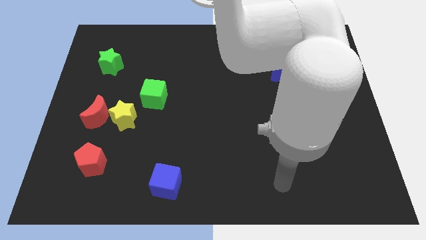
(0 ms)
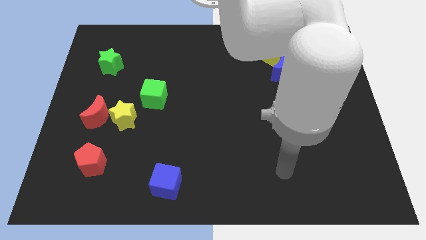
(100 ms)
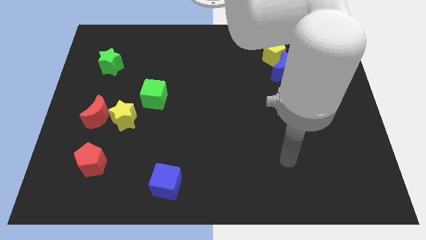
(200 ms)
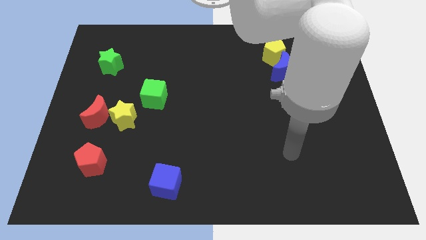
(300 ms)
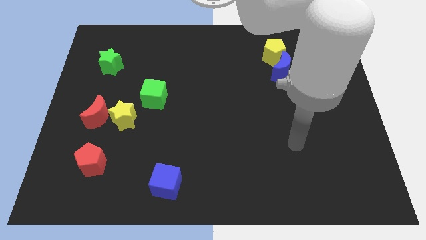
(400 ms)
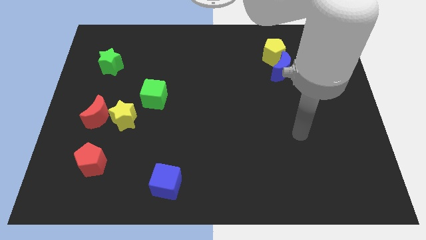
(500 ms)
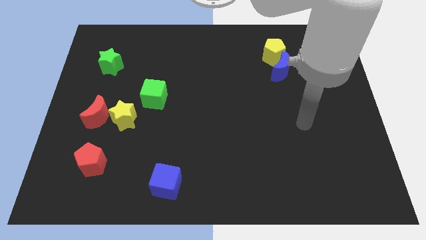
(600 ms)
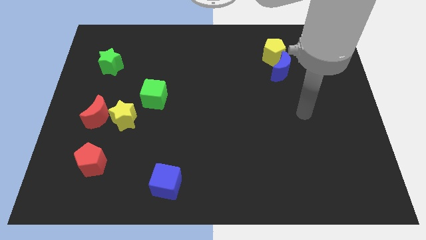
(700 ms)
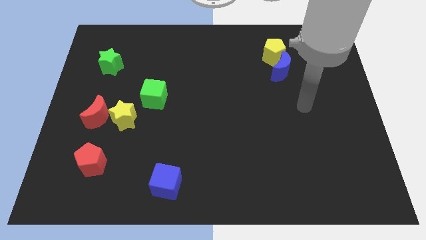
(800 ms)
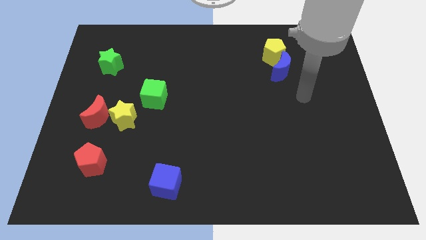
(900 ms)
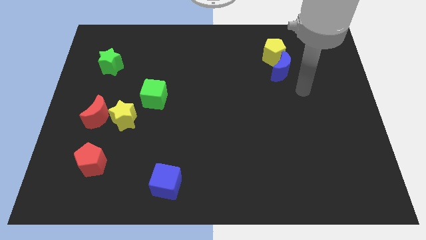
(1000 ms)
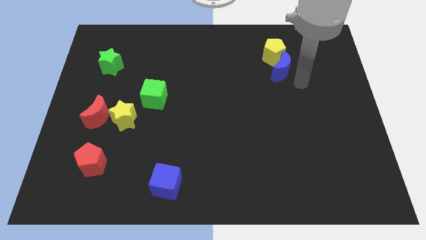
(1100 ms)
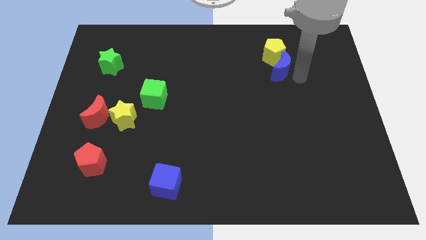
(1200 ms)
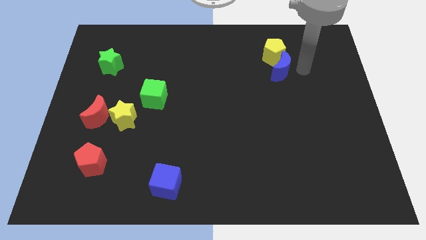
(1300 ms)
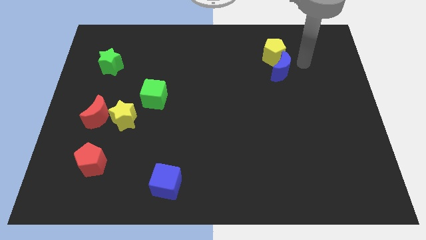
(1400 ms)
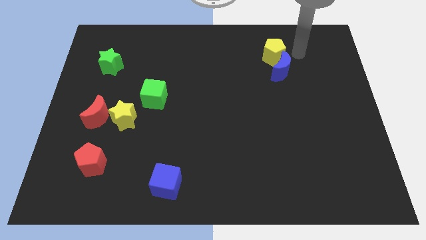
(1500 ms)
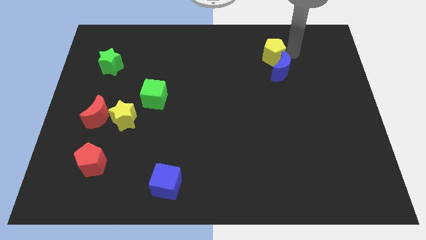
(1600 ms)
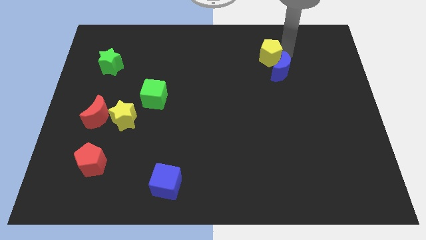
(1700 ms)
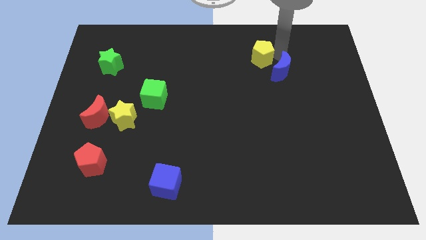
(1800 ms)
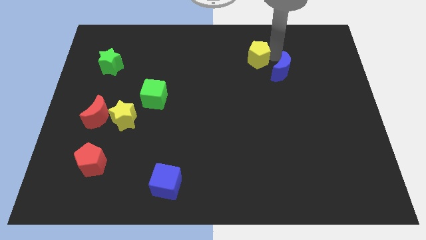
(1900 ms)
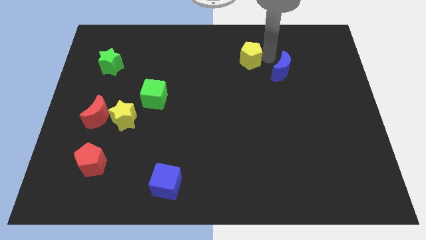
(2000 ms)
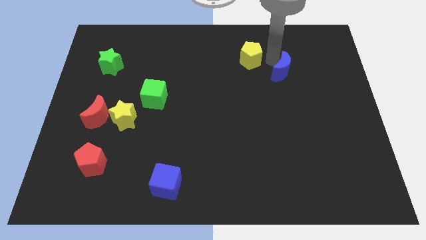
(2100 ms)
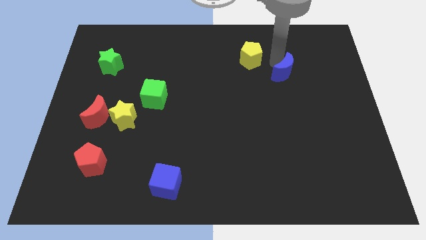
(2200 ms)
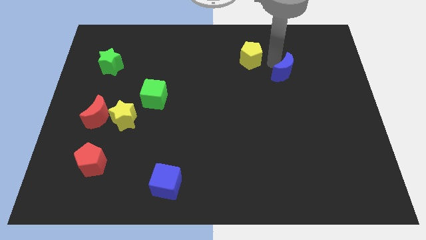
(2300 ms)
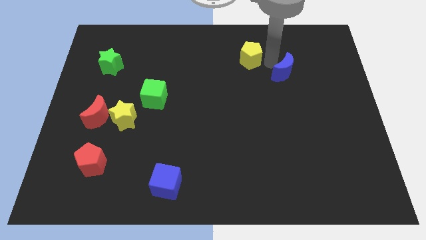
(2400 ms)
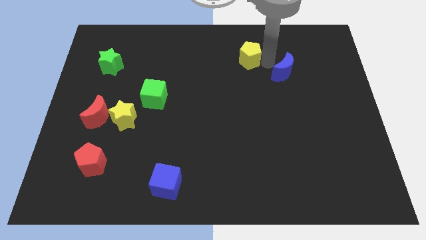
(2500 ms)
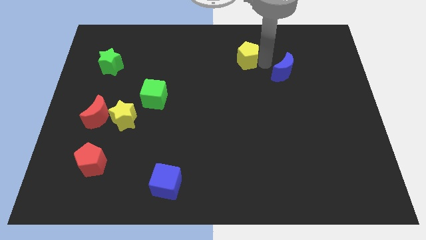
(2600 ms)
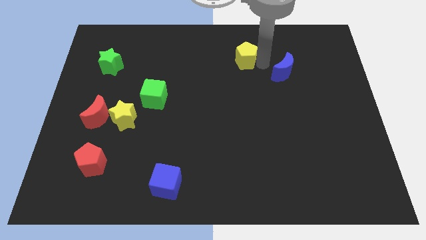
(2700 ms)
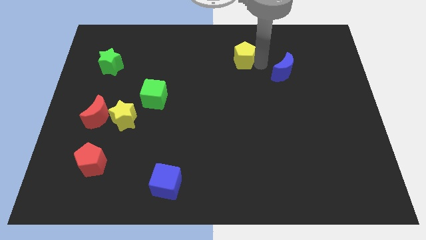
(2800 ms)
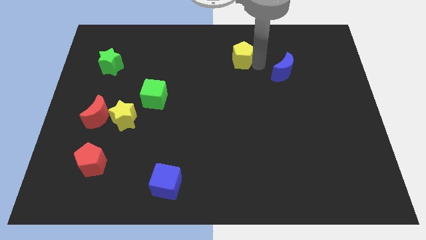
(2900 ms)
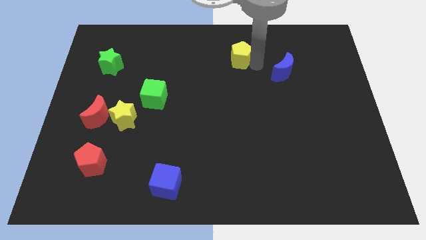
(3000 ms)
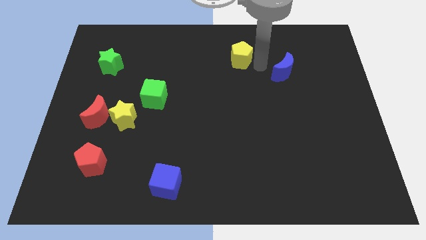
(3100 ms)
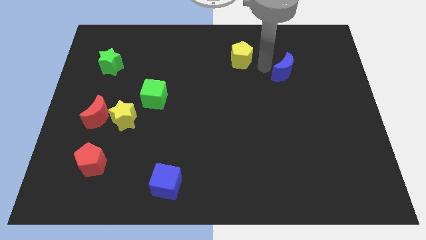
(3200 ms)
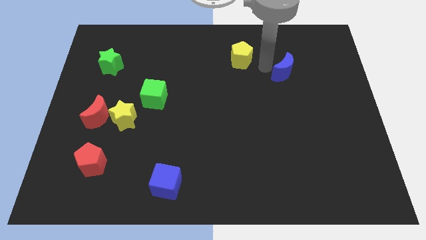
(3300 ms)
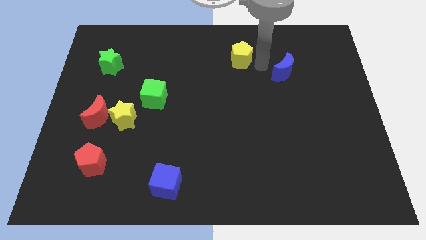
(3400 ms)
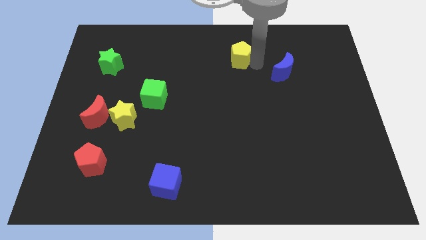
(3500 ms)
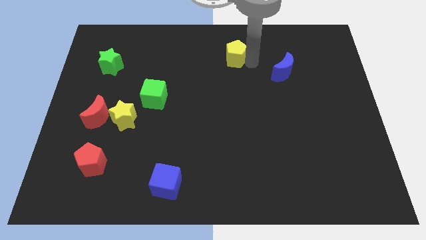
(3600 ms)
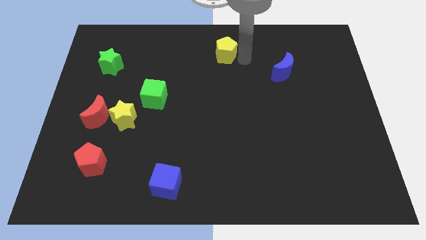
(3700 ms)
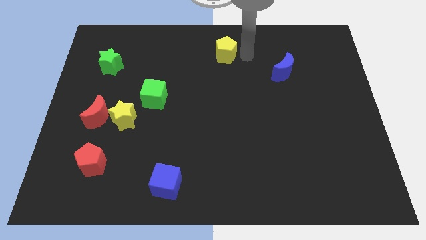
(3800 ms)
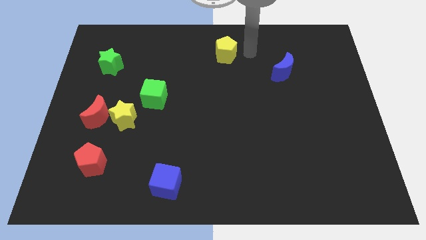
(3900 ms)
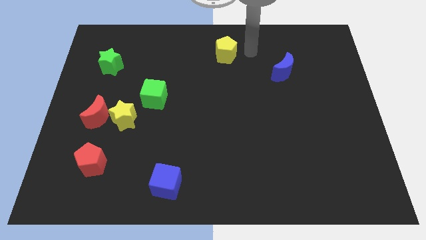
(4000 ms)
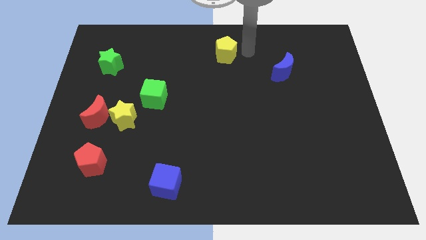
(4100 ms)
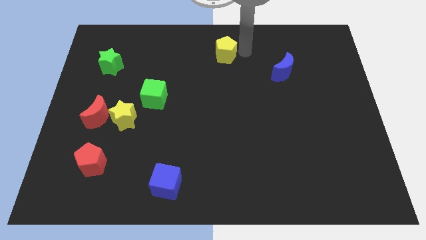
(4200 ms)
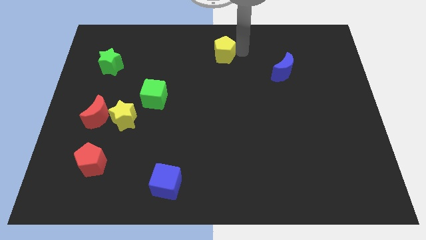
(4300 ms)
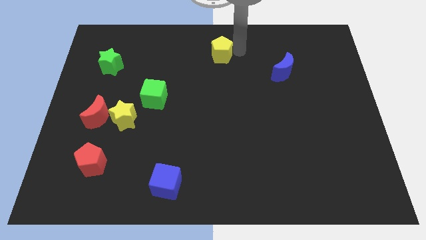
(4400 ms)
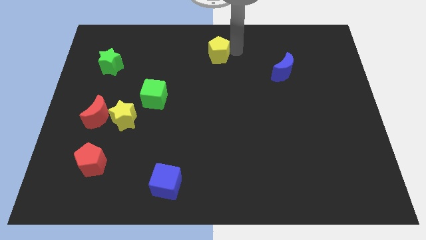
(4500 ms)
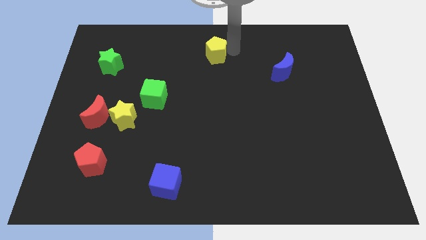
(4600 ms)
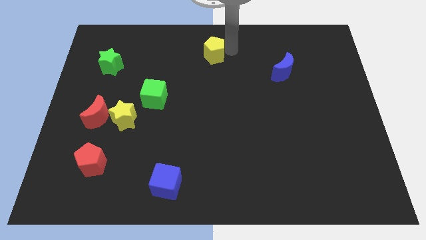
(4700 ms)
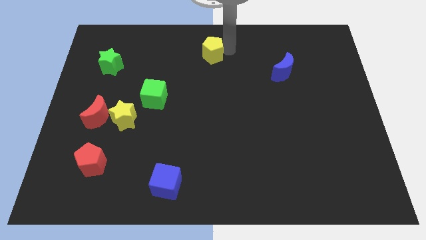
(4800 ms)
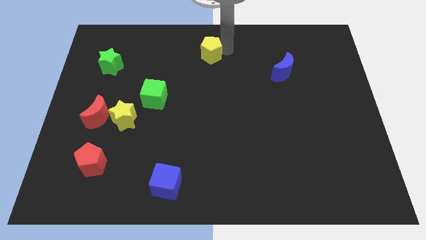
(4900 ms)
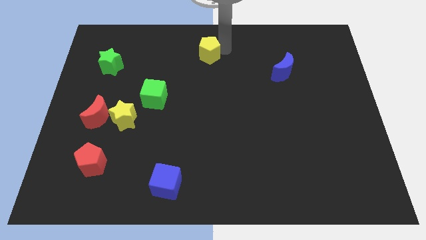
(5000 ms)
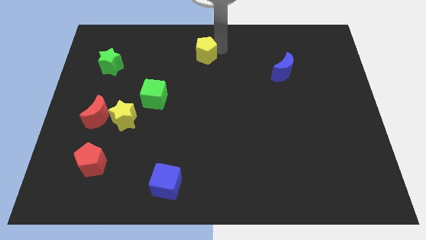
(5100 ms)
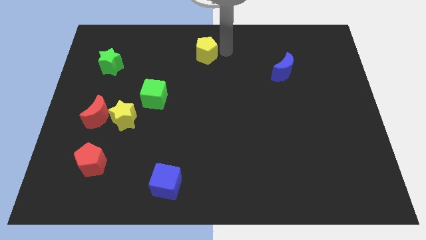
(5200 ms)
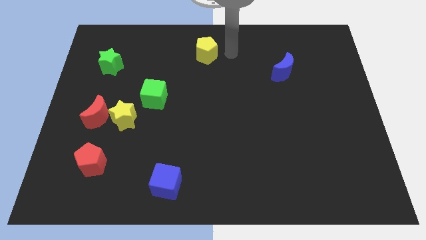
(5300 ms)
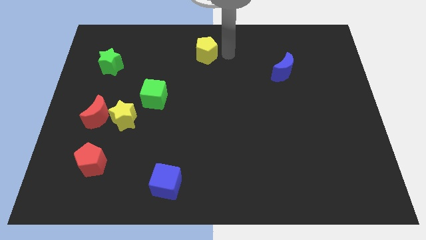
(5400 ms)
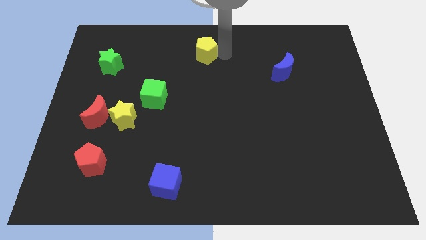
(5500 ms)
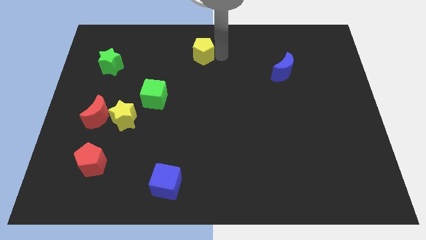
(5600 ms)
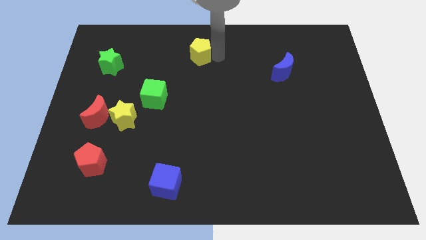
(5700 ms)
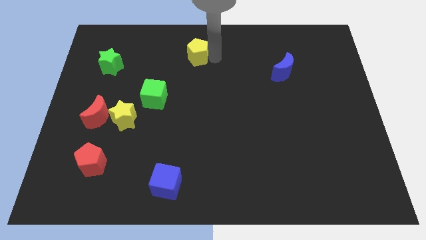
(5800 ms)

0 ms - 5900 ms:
move the yellow pentagon to the left

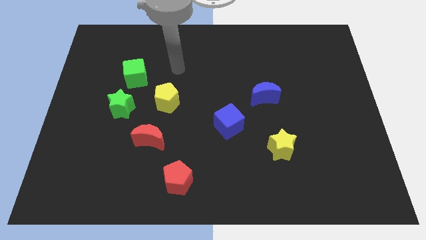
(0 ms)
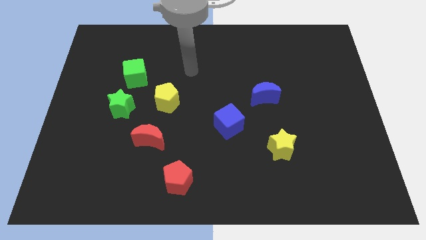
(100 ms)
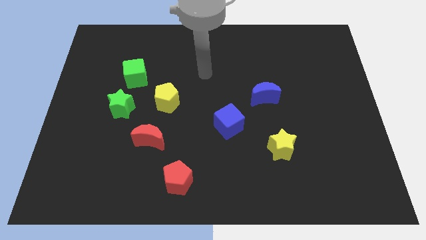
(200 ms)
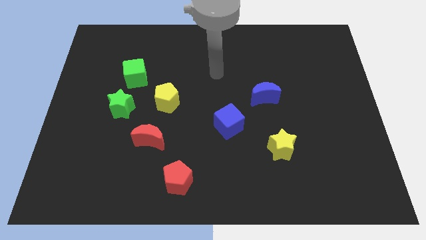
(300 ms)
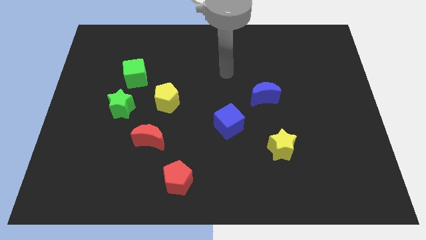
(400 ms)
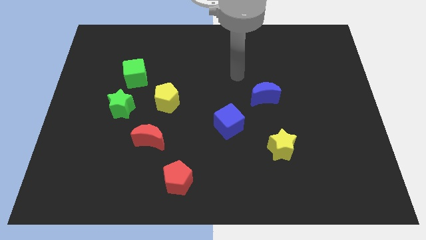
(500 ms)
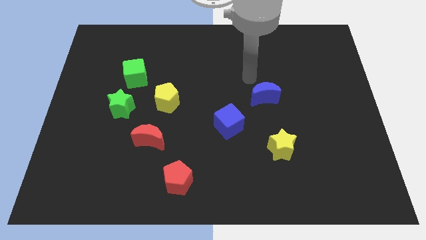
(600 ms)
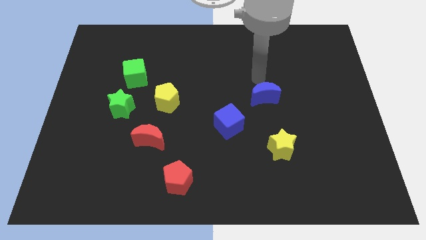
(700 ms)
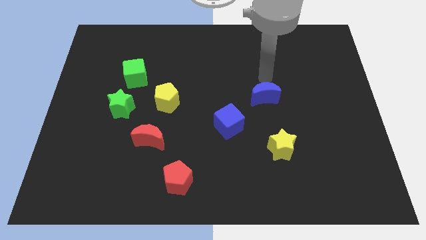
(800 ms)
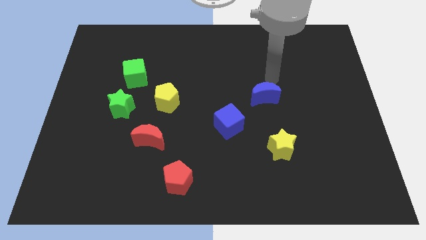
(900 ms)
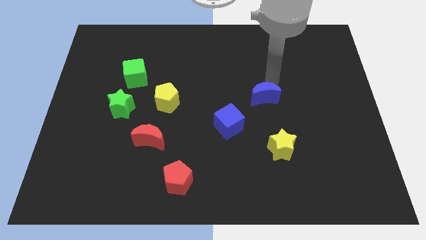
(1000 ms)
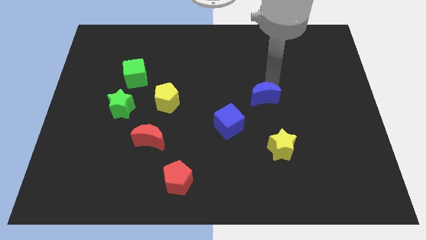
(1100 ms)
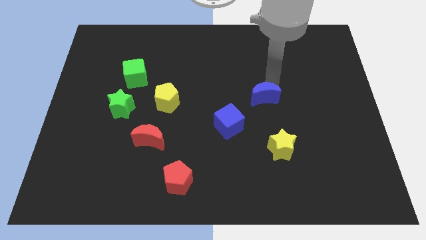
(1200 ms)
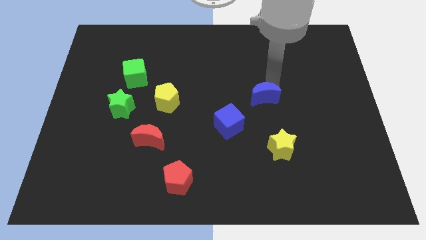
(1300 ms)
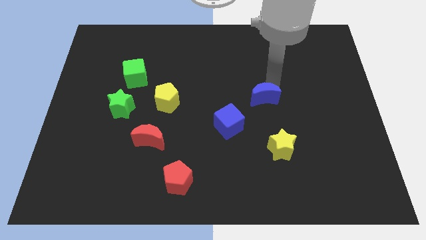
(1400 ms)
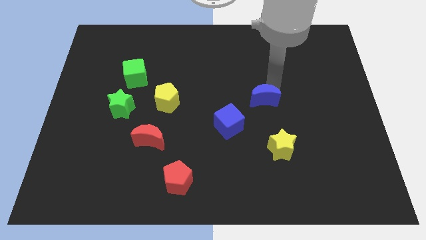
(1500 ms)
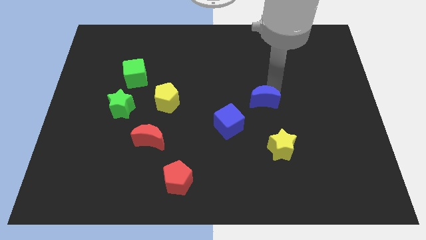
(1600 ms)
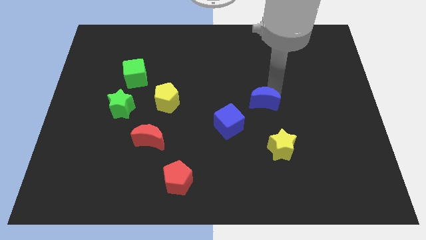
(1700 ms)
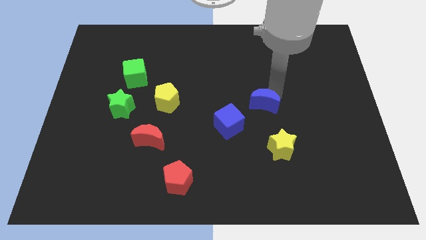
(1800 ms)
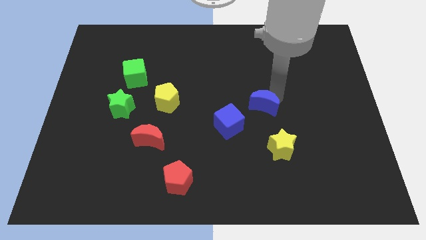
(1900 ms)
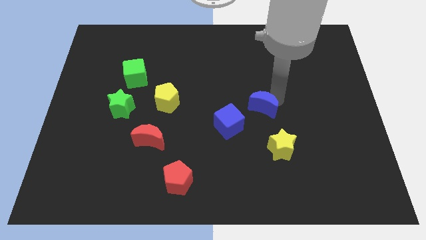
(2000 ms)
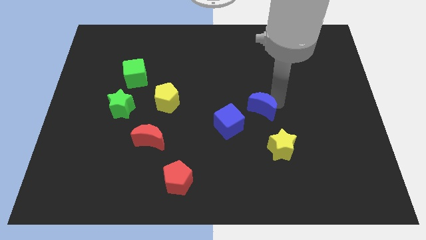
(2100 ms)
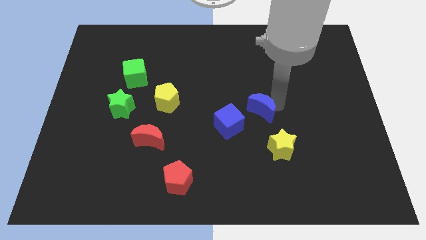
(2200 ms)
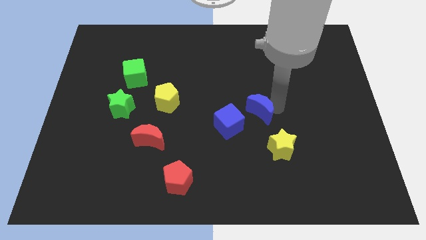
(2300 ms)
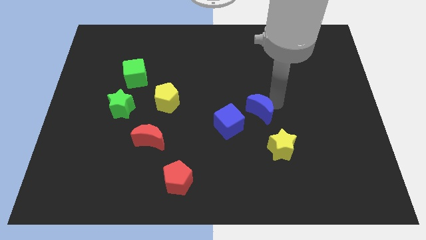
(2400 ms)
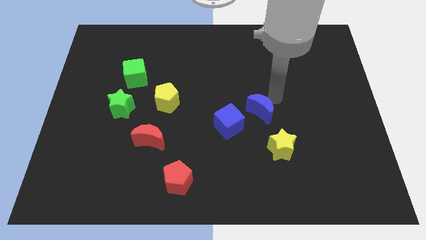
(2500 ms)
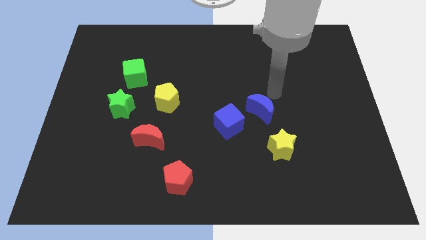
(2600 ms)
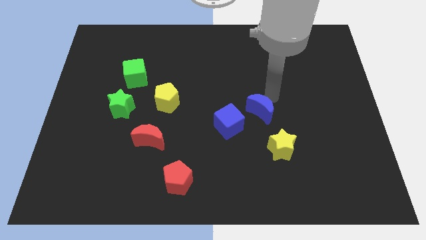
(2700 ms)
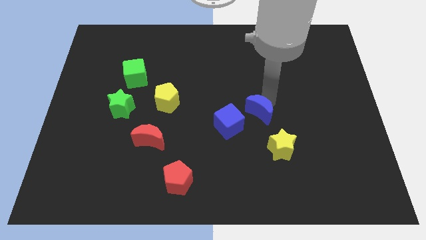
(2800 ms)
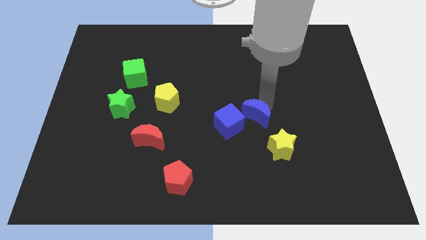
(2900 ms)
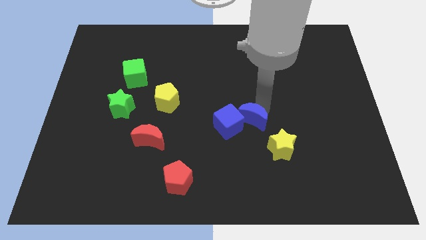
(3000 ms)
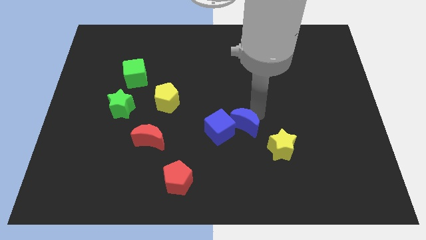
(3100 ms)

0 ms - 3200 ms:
slightly push the blue moon down and to the left diagonally
